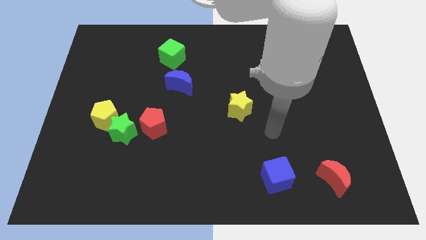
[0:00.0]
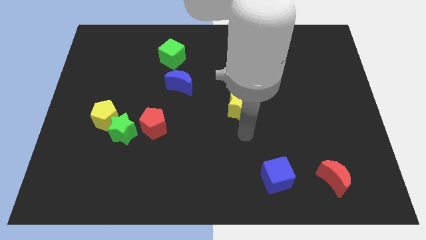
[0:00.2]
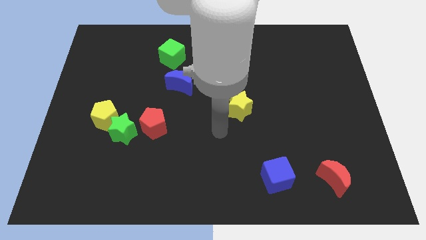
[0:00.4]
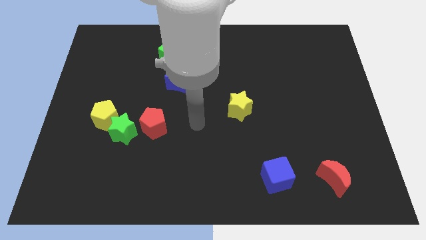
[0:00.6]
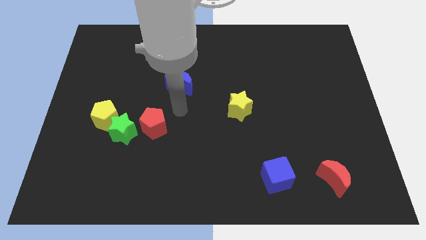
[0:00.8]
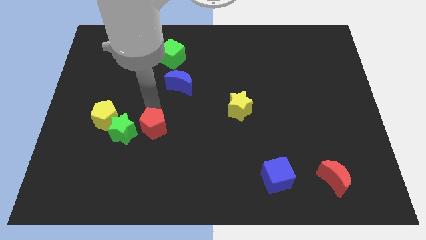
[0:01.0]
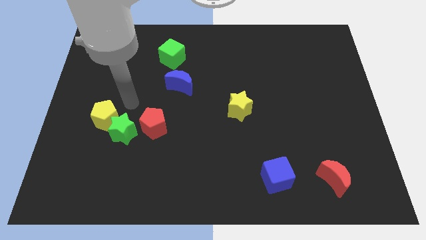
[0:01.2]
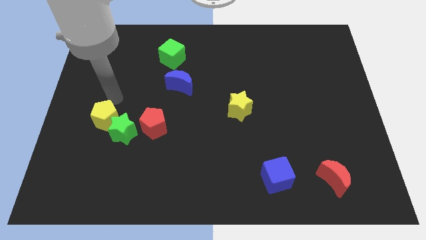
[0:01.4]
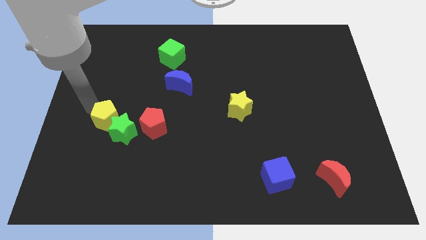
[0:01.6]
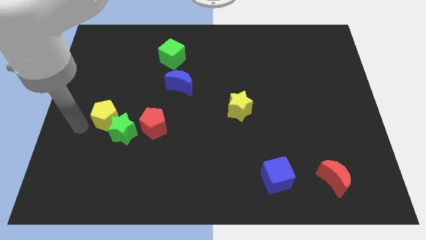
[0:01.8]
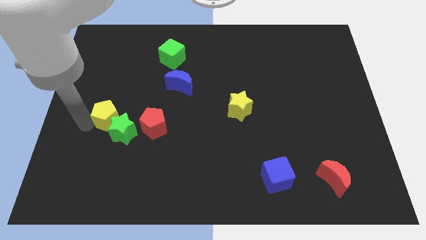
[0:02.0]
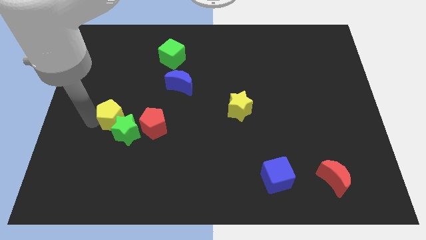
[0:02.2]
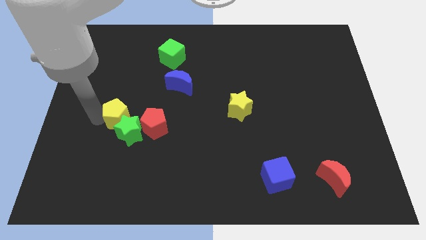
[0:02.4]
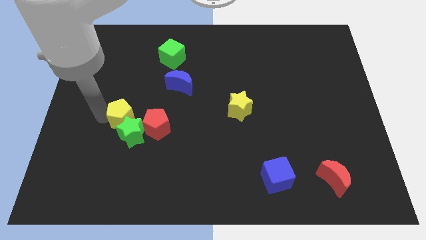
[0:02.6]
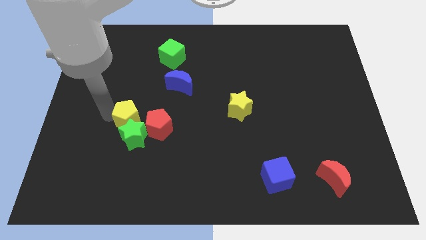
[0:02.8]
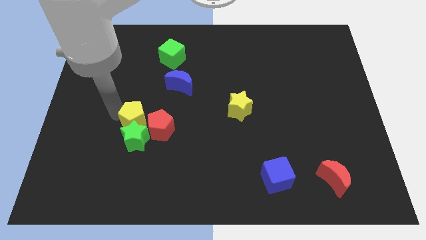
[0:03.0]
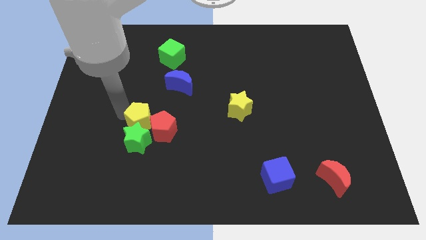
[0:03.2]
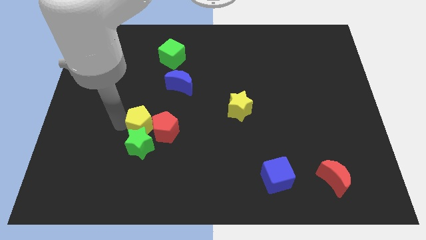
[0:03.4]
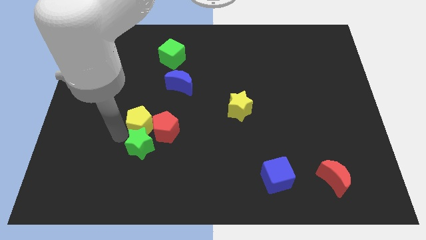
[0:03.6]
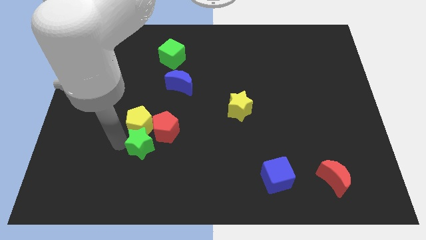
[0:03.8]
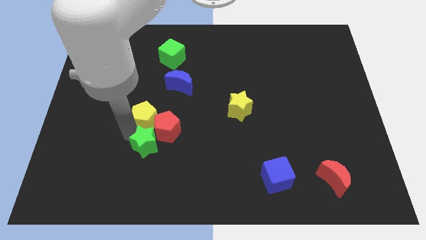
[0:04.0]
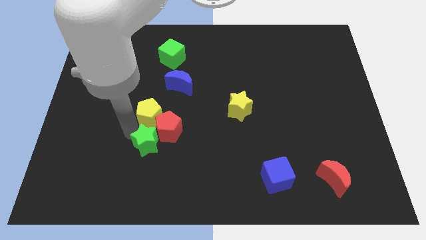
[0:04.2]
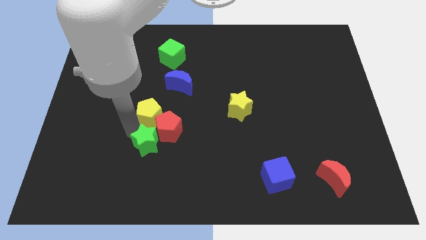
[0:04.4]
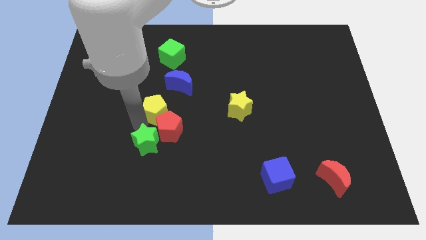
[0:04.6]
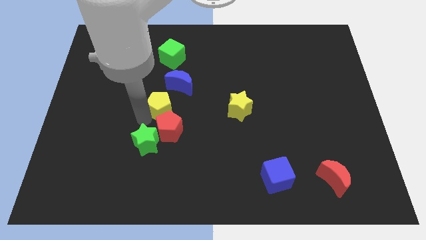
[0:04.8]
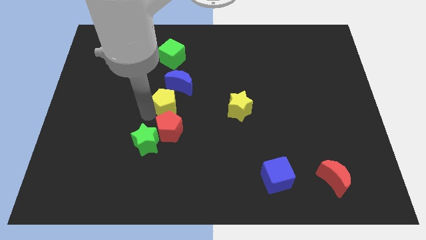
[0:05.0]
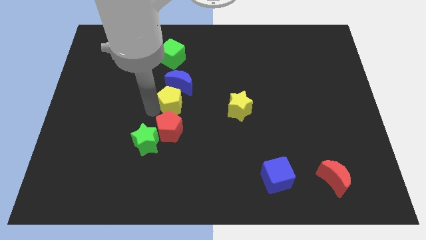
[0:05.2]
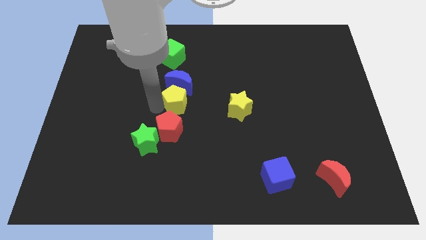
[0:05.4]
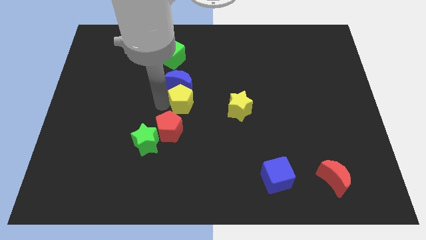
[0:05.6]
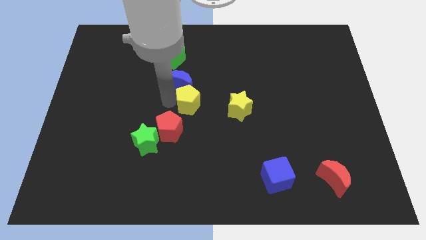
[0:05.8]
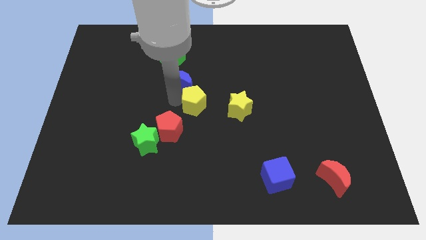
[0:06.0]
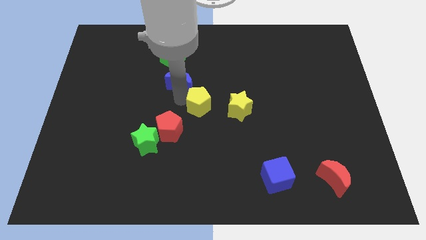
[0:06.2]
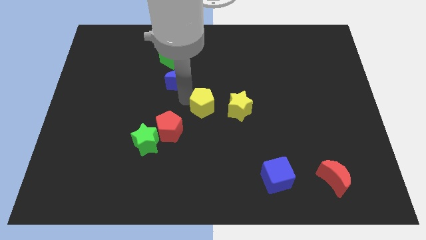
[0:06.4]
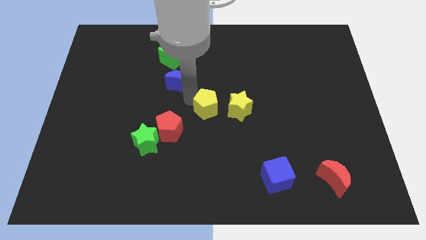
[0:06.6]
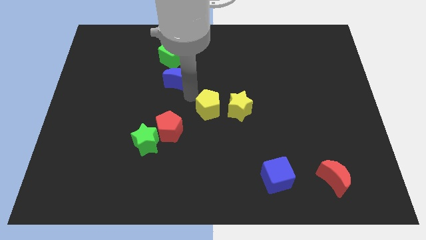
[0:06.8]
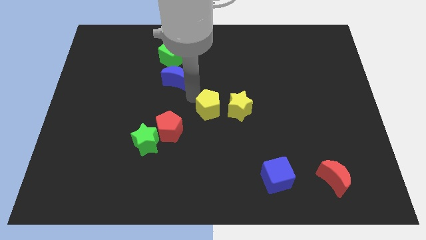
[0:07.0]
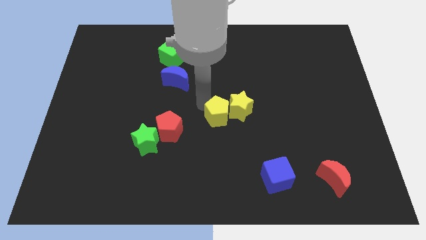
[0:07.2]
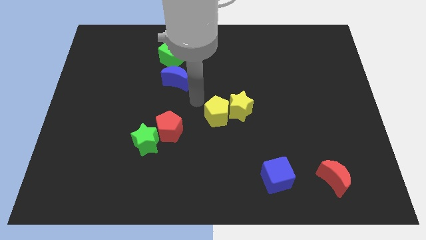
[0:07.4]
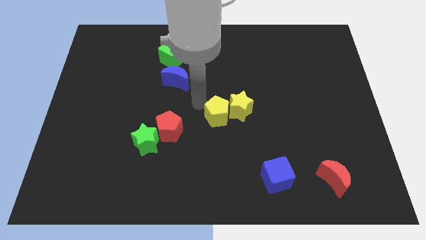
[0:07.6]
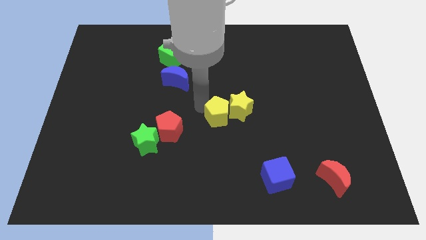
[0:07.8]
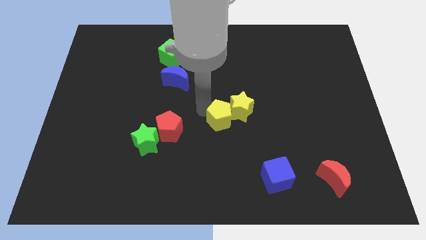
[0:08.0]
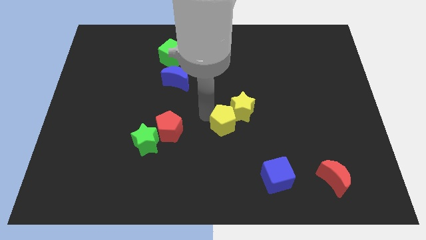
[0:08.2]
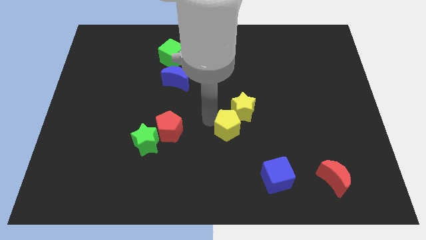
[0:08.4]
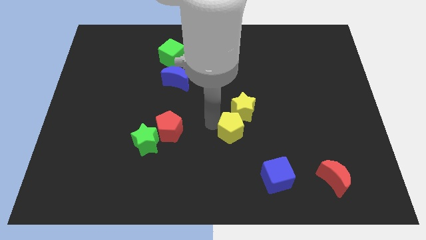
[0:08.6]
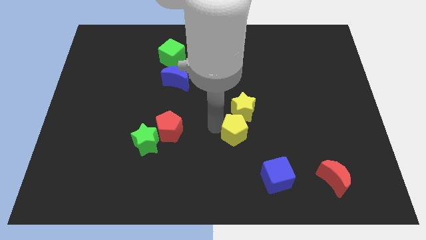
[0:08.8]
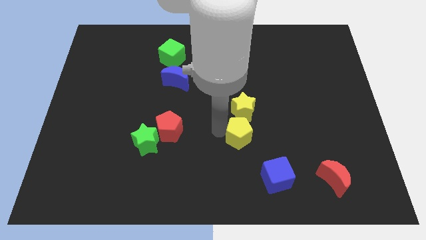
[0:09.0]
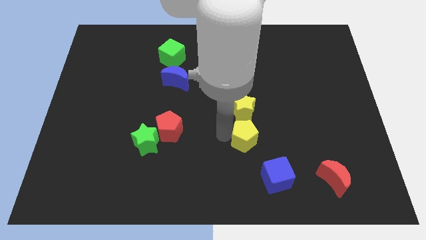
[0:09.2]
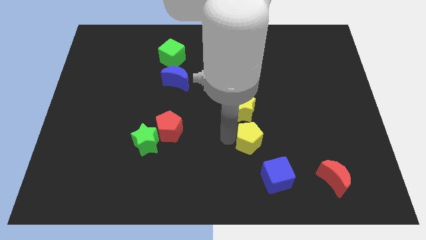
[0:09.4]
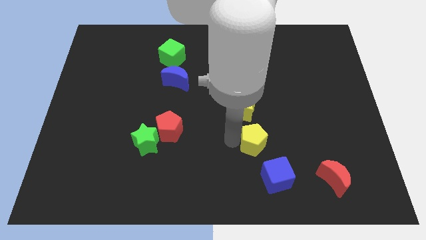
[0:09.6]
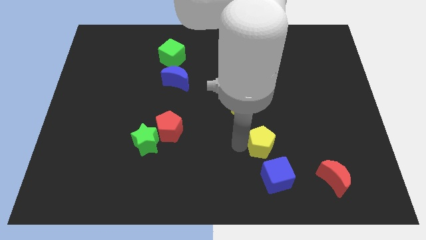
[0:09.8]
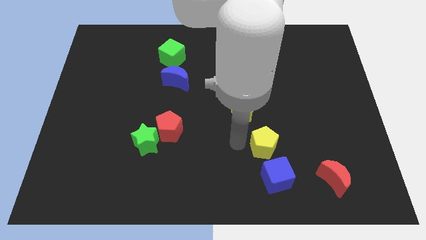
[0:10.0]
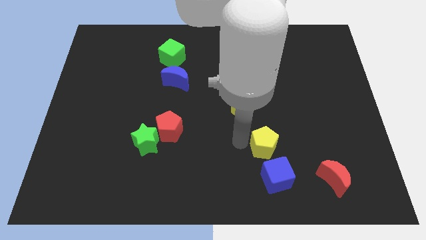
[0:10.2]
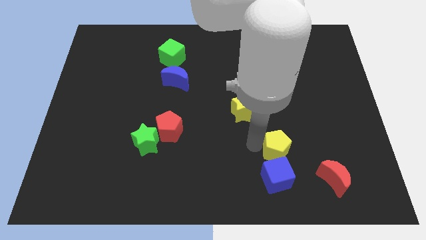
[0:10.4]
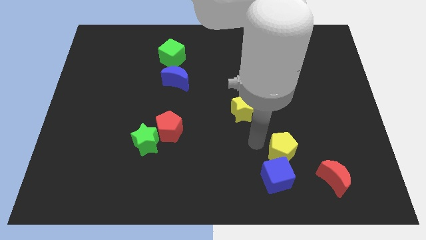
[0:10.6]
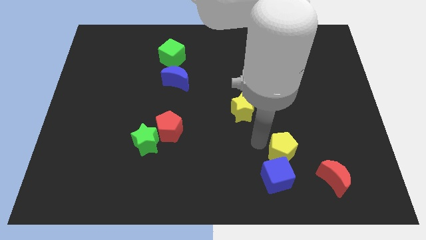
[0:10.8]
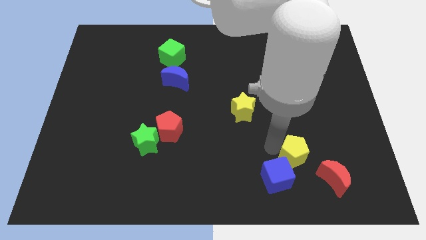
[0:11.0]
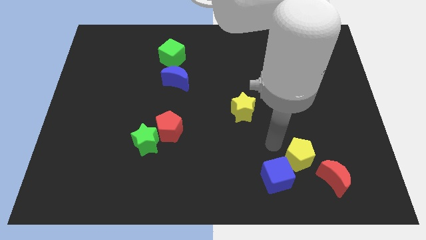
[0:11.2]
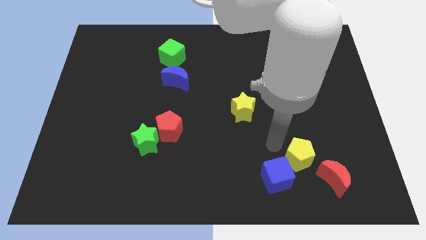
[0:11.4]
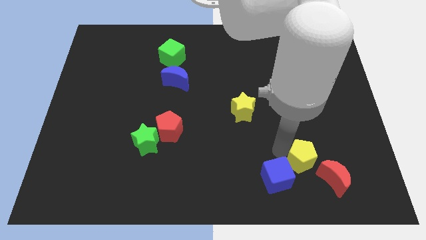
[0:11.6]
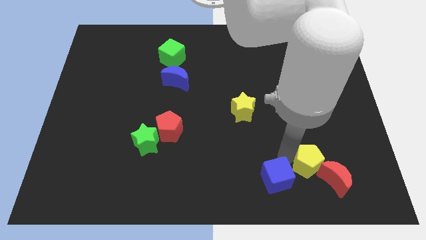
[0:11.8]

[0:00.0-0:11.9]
put the yellow pentagon towards the red moon

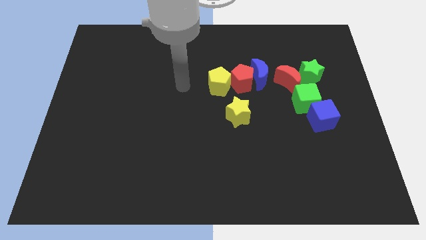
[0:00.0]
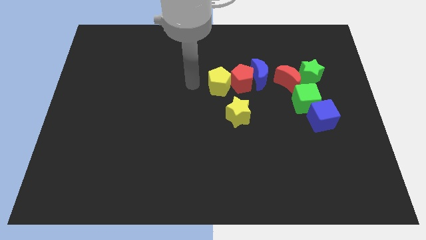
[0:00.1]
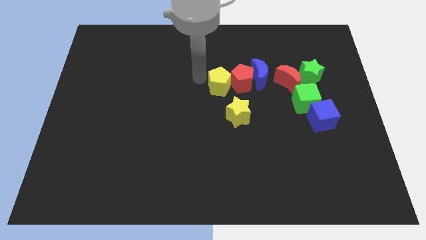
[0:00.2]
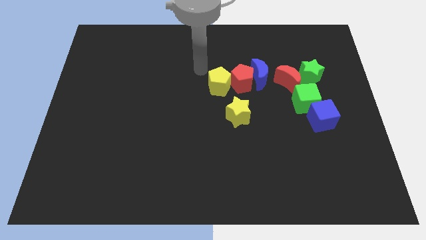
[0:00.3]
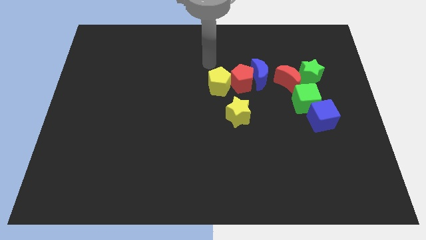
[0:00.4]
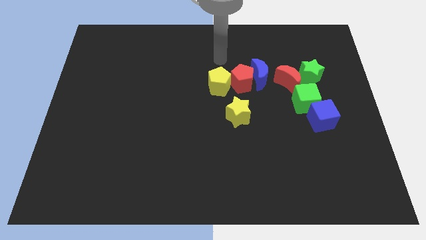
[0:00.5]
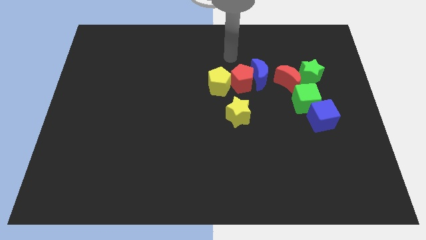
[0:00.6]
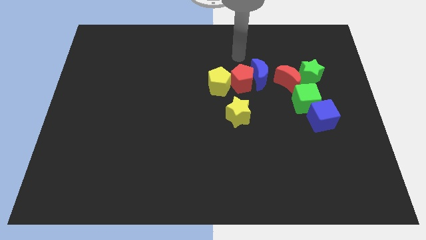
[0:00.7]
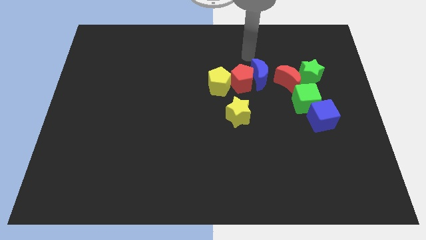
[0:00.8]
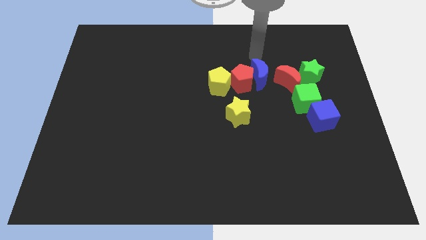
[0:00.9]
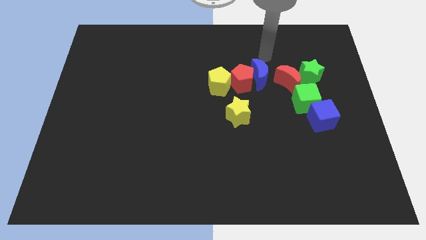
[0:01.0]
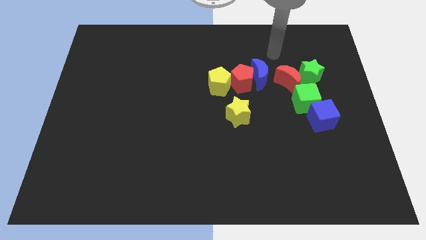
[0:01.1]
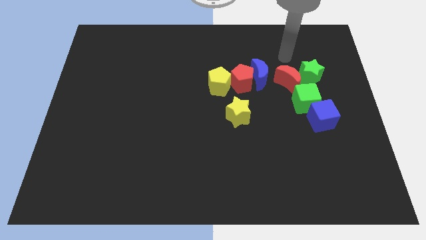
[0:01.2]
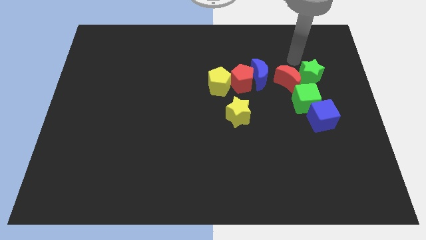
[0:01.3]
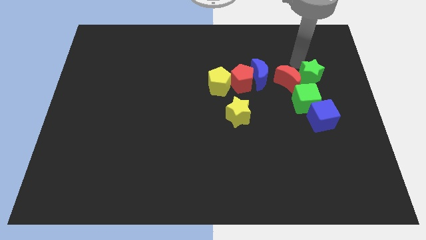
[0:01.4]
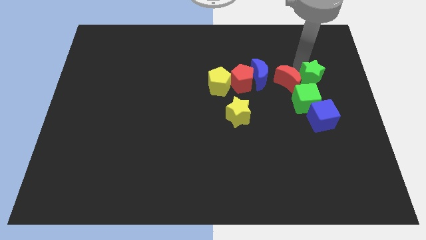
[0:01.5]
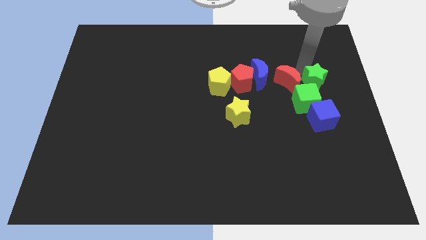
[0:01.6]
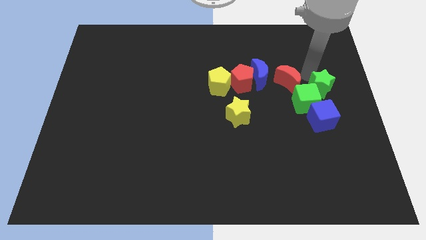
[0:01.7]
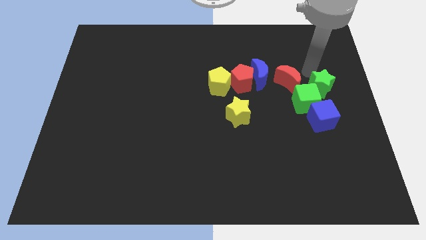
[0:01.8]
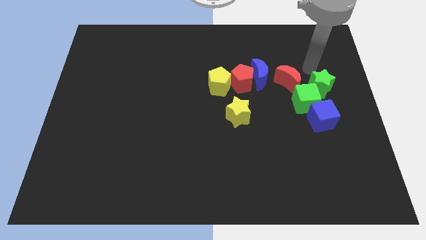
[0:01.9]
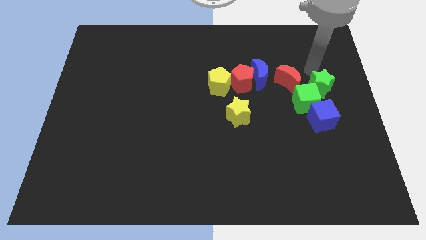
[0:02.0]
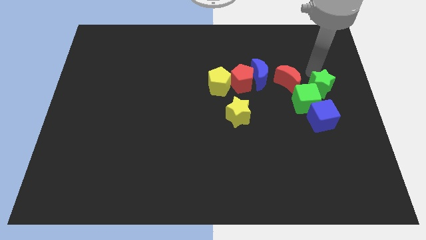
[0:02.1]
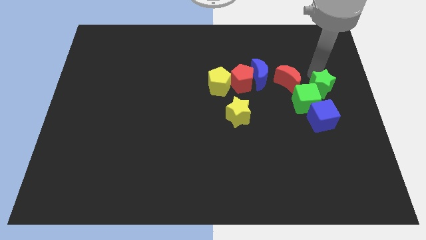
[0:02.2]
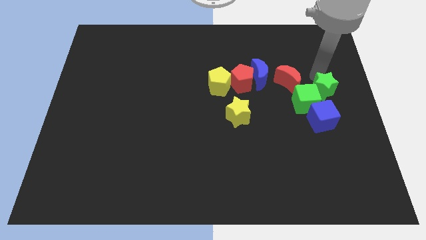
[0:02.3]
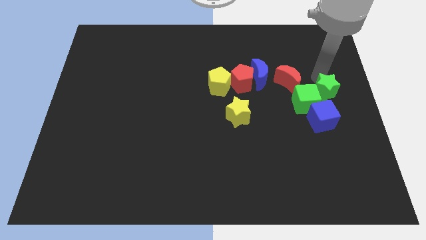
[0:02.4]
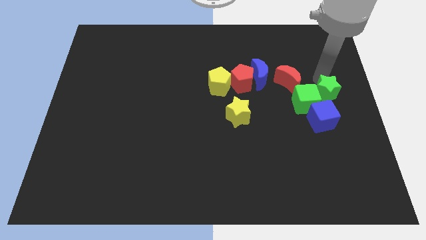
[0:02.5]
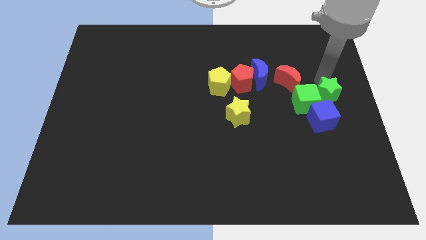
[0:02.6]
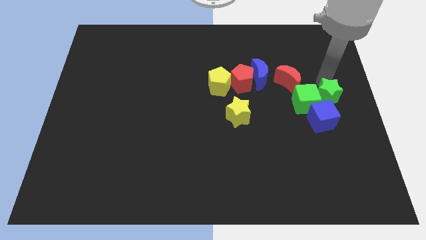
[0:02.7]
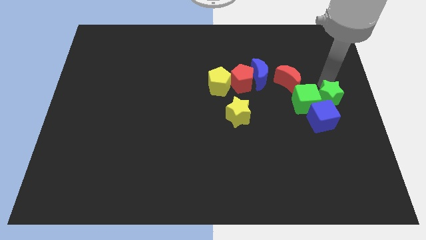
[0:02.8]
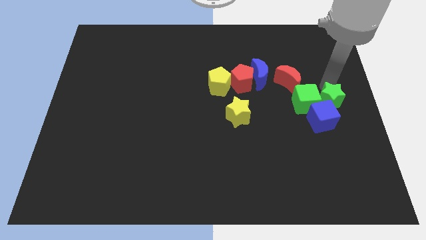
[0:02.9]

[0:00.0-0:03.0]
slide the green star close to the blue cube
